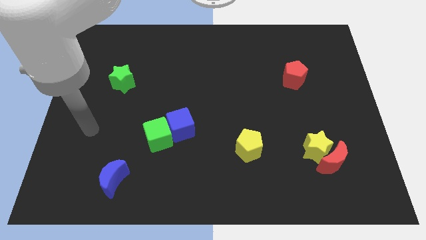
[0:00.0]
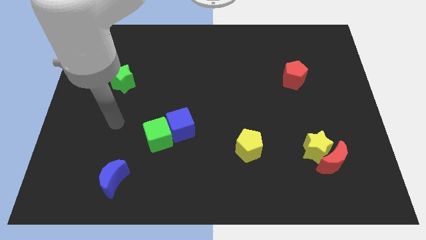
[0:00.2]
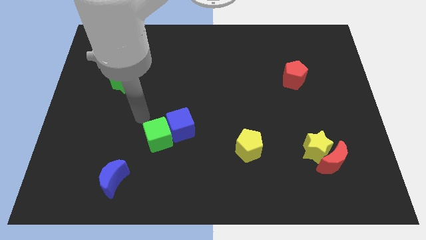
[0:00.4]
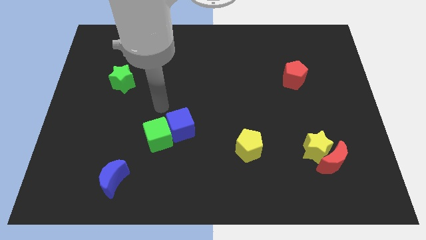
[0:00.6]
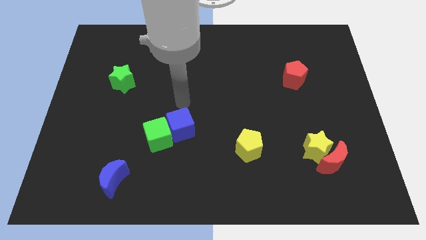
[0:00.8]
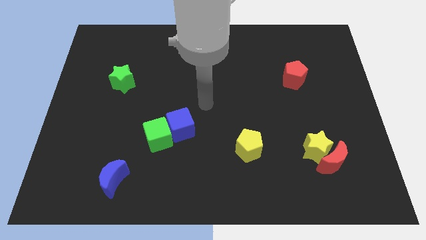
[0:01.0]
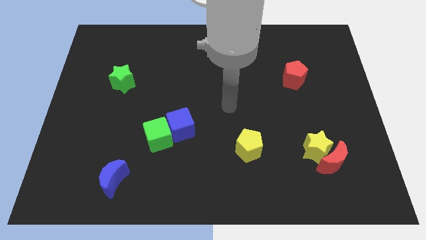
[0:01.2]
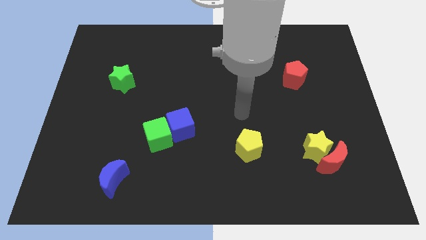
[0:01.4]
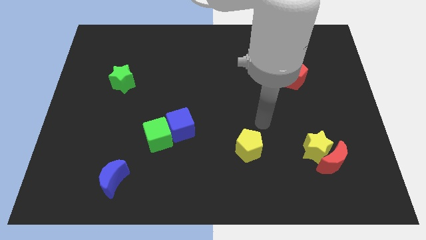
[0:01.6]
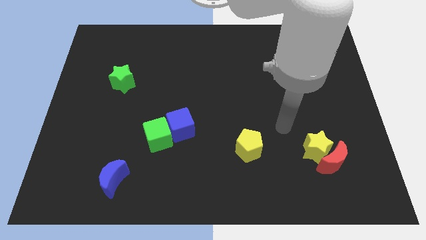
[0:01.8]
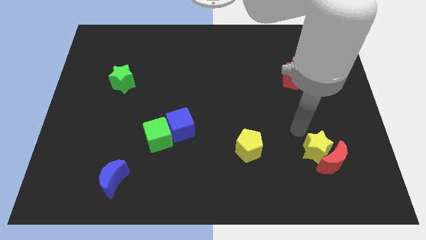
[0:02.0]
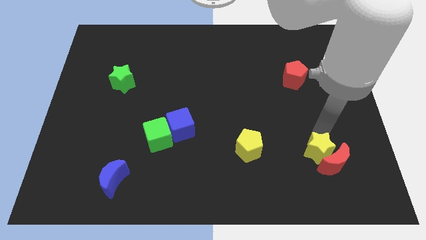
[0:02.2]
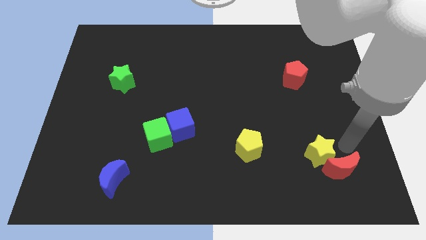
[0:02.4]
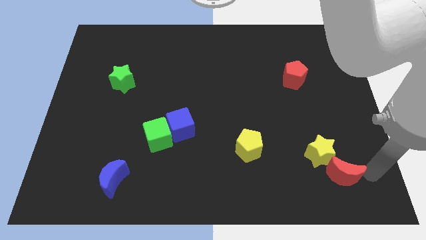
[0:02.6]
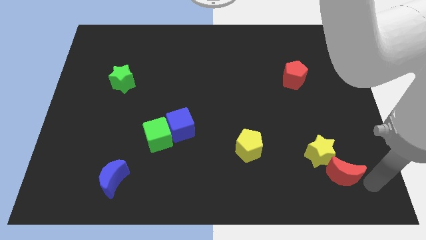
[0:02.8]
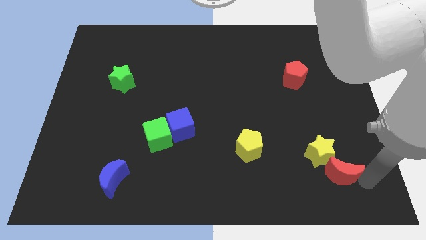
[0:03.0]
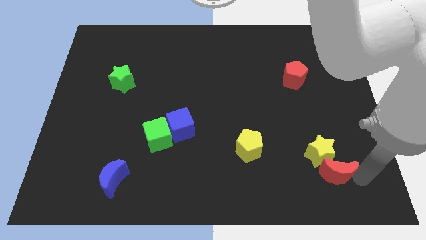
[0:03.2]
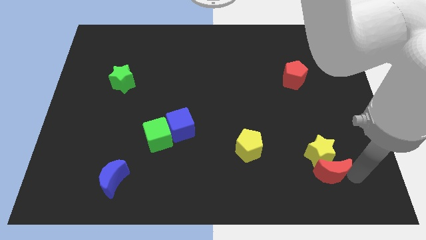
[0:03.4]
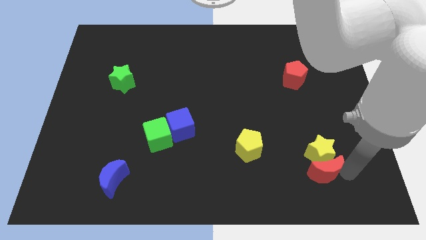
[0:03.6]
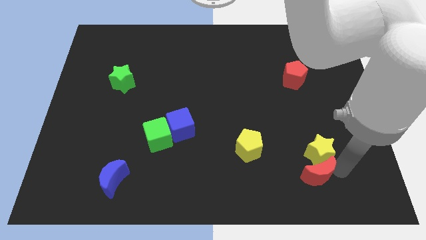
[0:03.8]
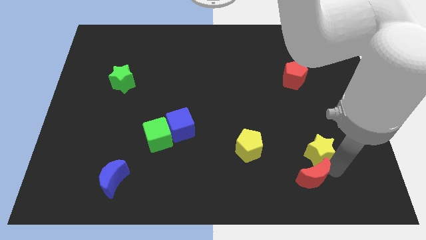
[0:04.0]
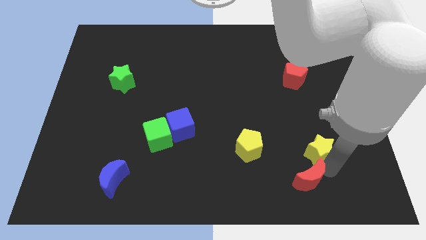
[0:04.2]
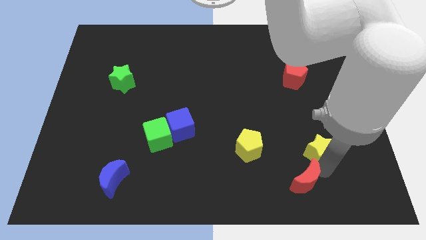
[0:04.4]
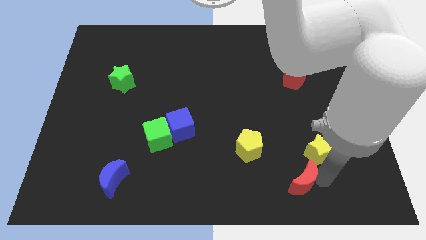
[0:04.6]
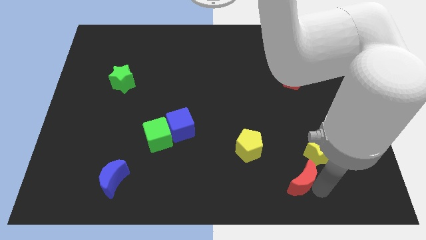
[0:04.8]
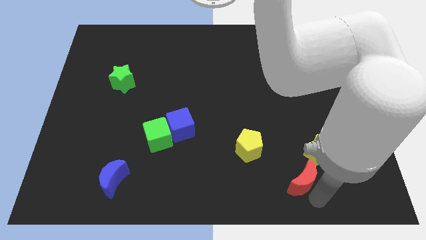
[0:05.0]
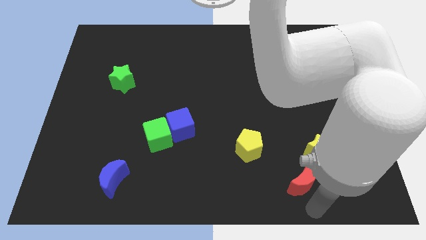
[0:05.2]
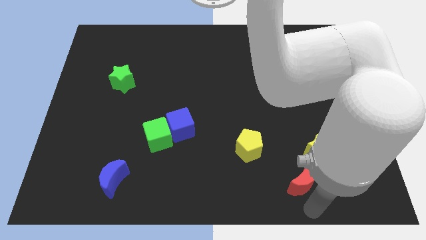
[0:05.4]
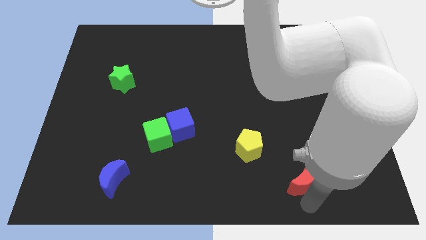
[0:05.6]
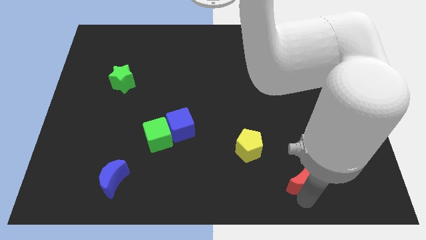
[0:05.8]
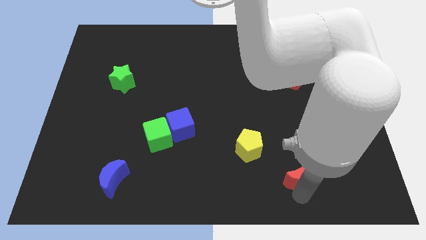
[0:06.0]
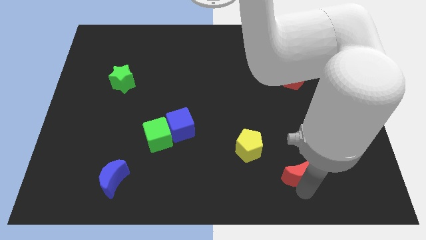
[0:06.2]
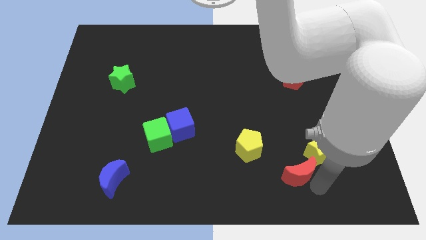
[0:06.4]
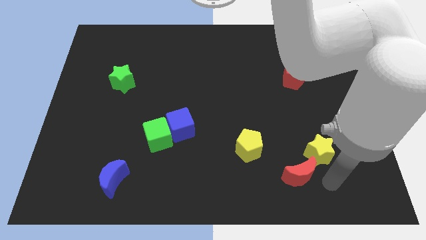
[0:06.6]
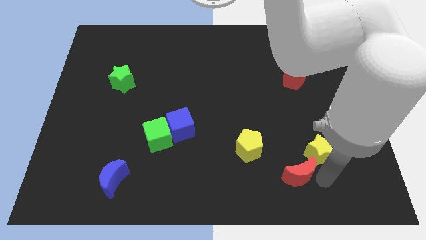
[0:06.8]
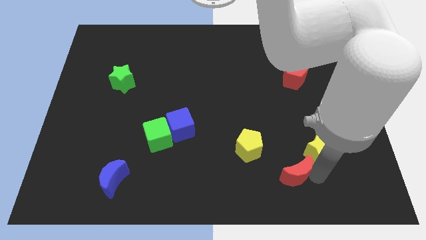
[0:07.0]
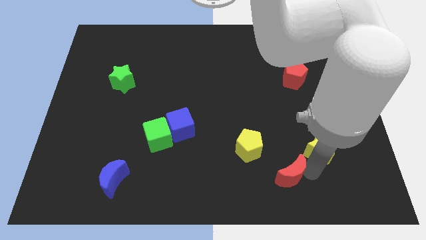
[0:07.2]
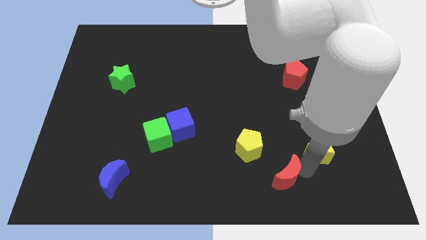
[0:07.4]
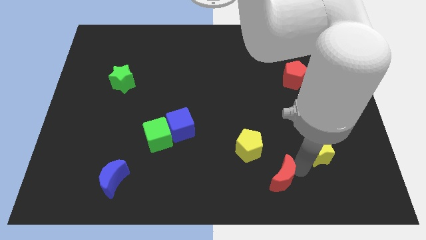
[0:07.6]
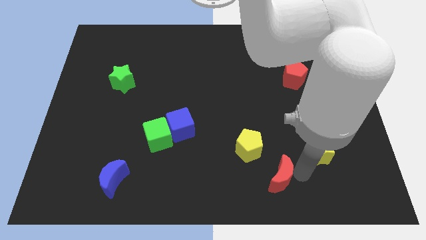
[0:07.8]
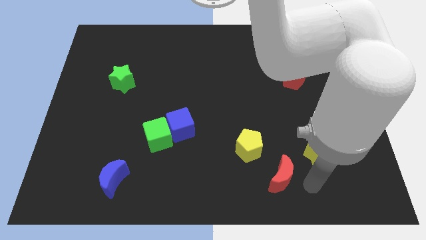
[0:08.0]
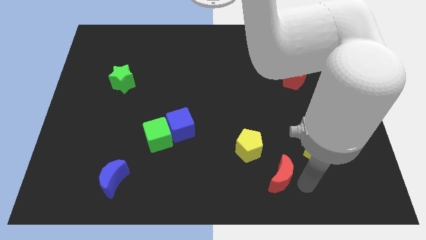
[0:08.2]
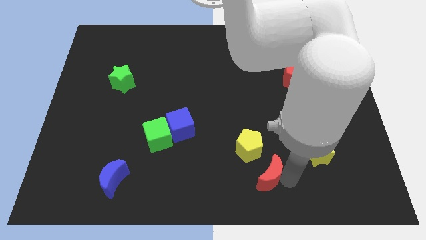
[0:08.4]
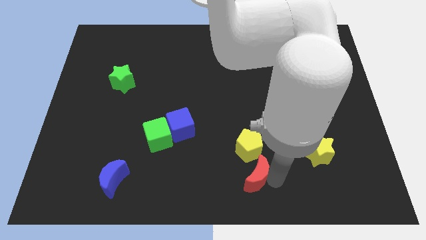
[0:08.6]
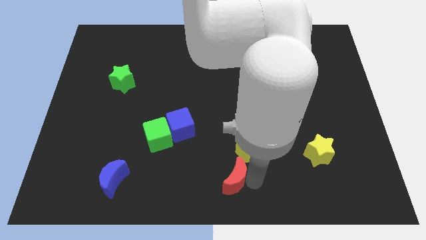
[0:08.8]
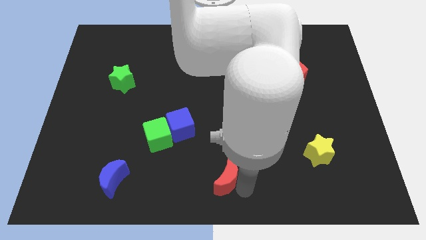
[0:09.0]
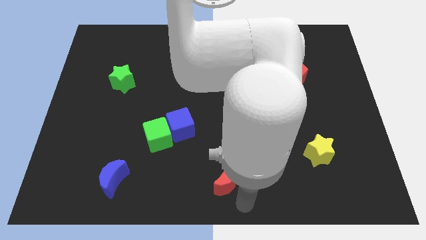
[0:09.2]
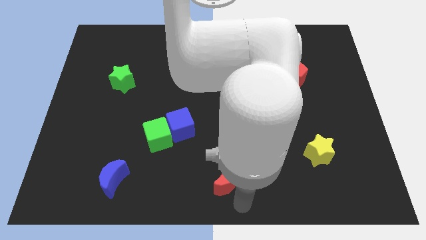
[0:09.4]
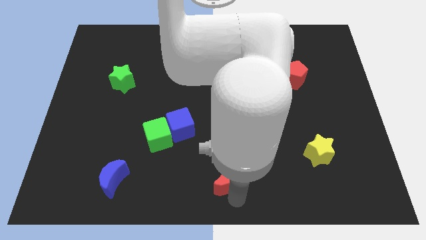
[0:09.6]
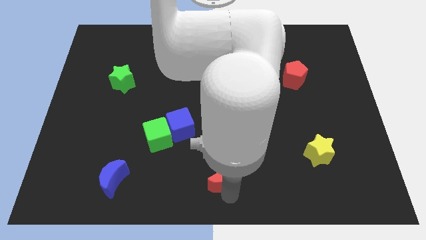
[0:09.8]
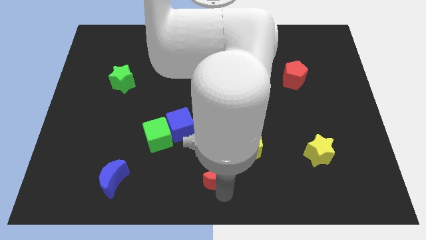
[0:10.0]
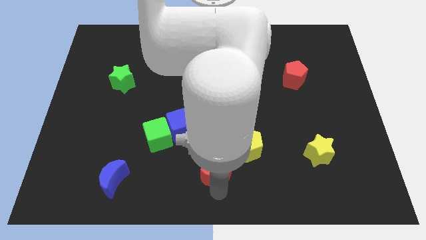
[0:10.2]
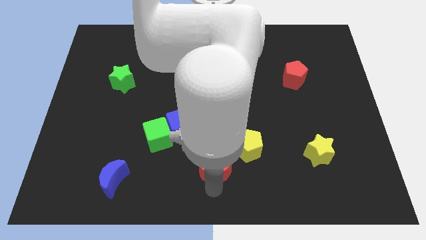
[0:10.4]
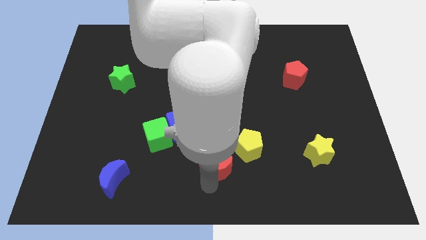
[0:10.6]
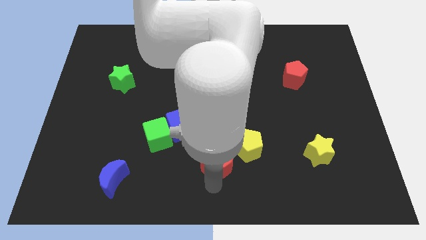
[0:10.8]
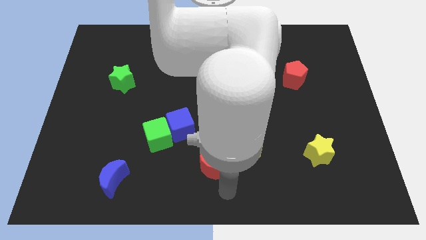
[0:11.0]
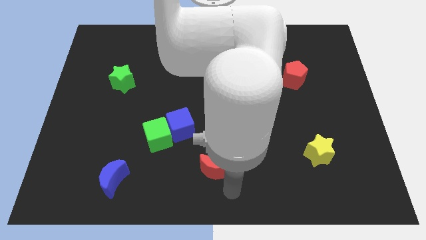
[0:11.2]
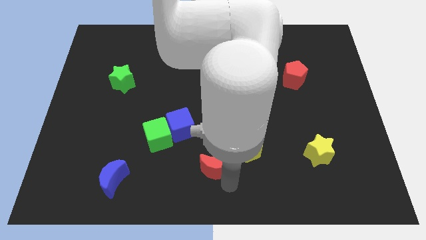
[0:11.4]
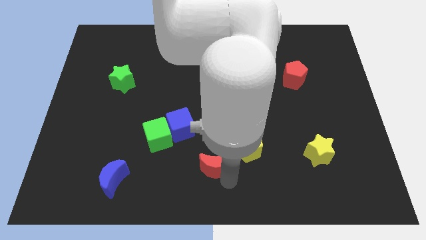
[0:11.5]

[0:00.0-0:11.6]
slide the red moon left of the yellow pentagon

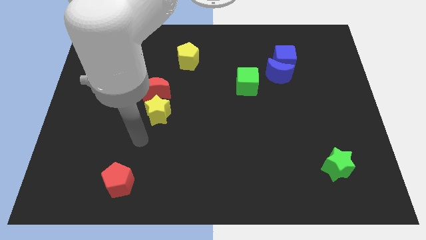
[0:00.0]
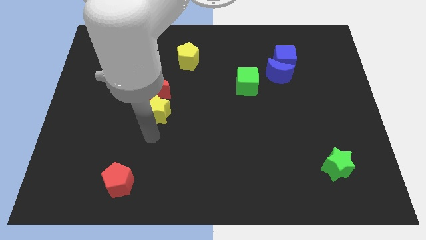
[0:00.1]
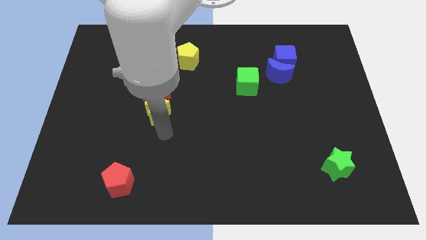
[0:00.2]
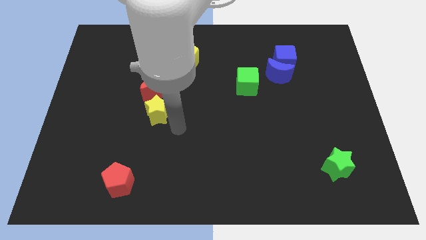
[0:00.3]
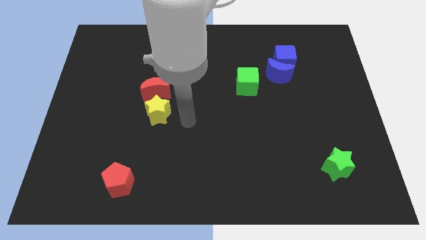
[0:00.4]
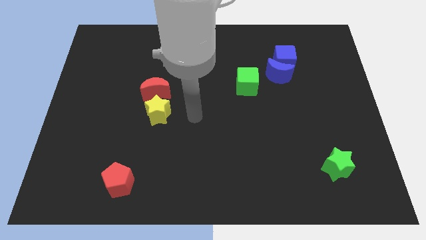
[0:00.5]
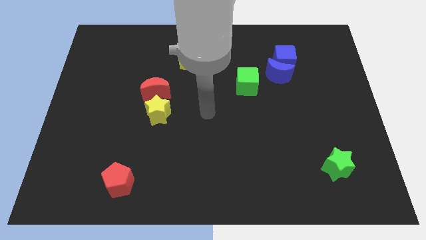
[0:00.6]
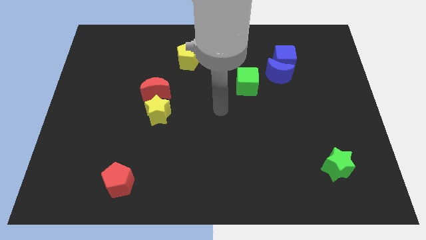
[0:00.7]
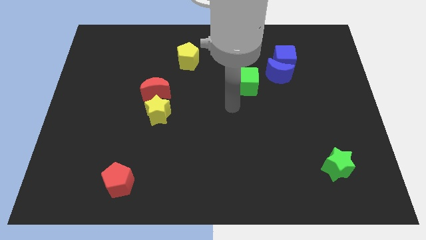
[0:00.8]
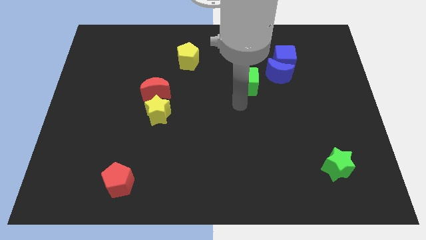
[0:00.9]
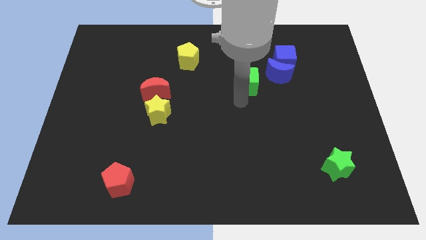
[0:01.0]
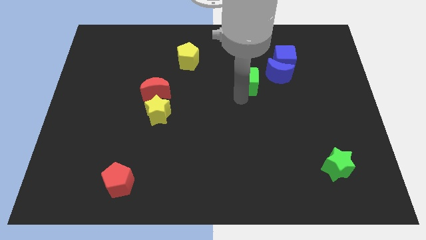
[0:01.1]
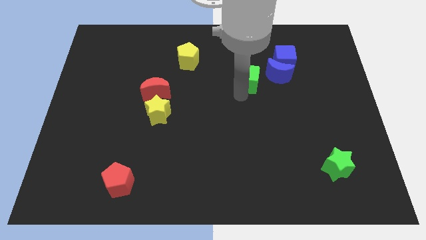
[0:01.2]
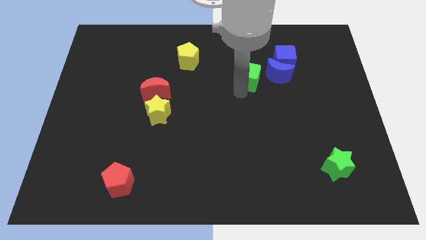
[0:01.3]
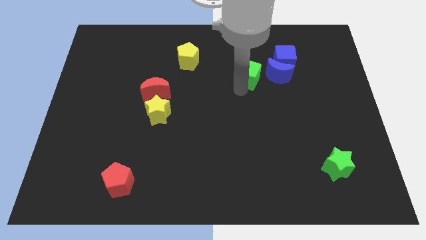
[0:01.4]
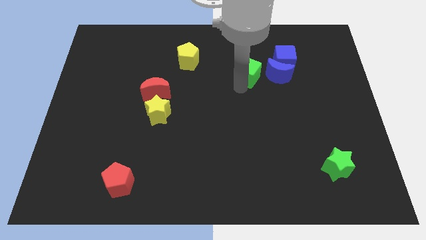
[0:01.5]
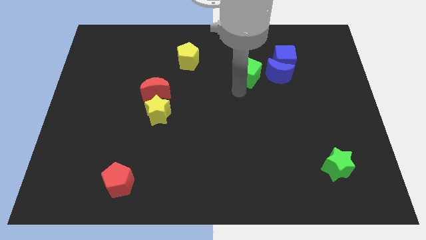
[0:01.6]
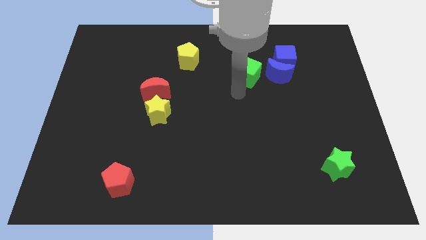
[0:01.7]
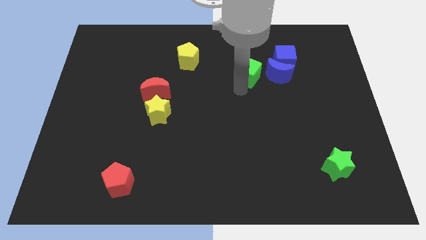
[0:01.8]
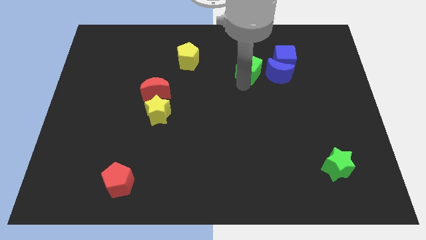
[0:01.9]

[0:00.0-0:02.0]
put the green cube to the top left side of the blue moon
